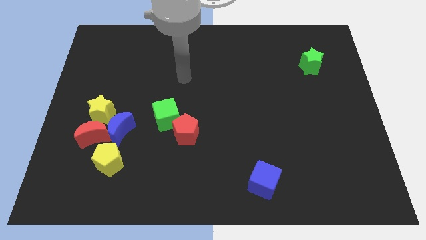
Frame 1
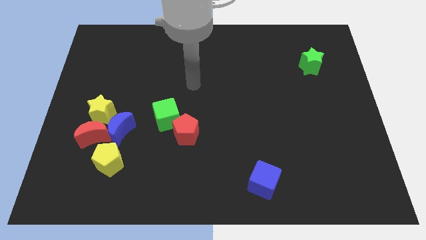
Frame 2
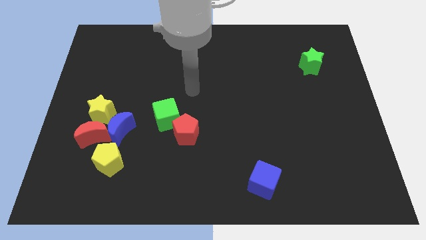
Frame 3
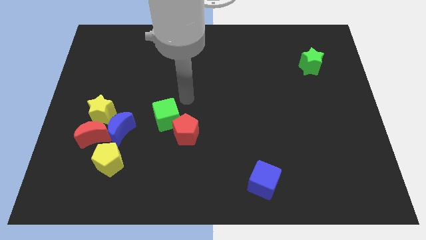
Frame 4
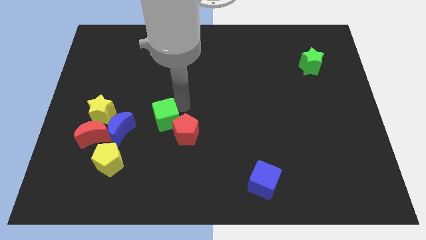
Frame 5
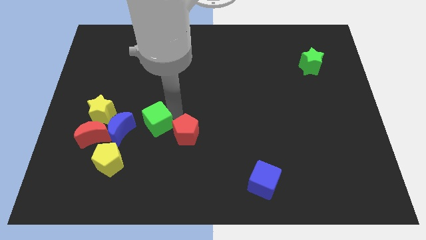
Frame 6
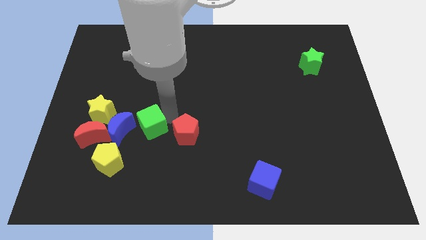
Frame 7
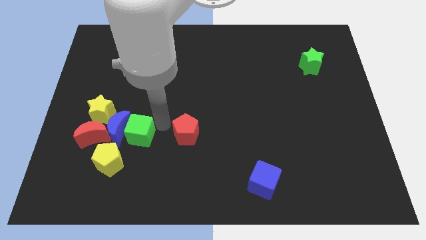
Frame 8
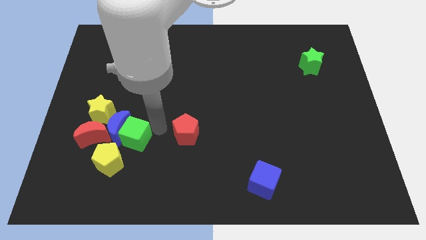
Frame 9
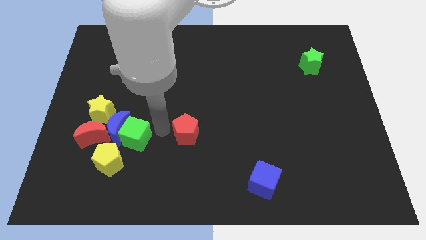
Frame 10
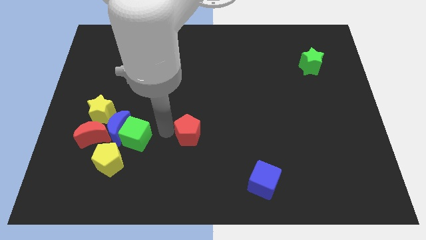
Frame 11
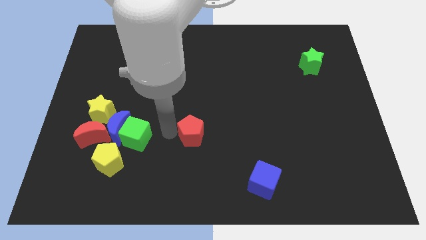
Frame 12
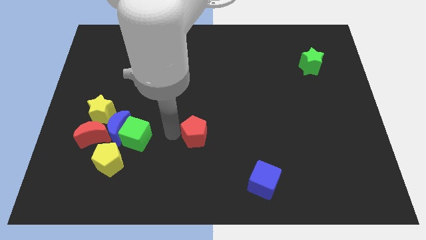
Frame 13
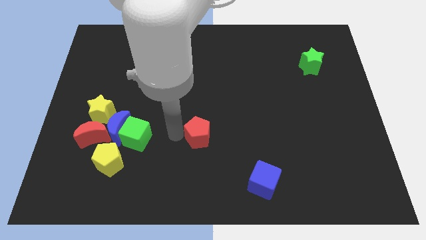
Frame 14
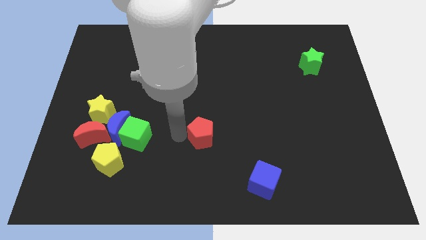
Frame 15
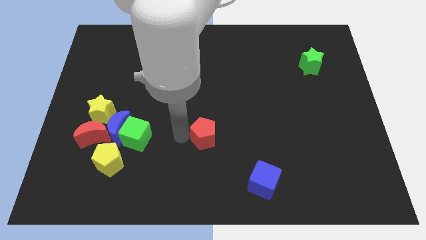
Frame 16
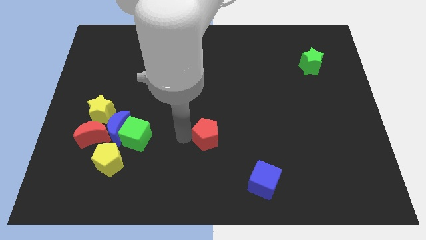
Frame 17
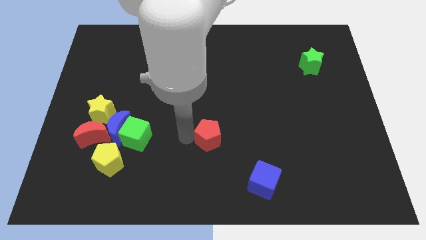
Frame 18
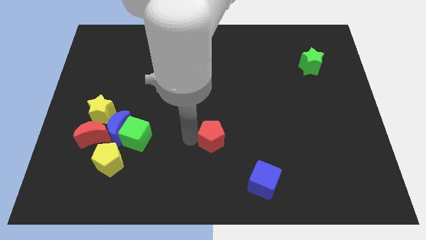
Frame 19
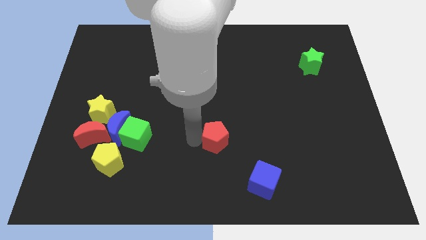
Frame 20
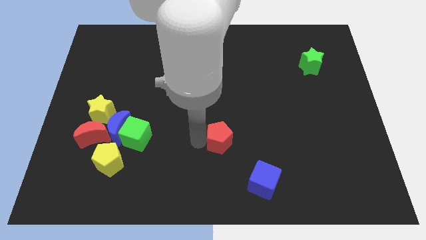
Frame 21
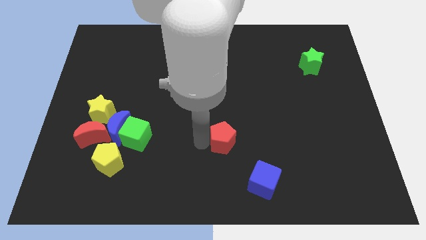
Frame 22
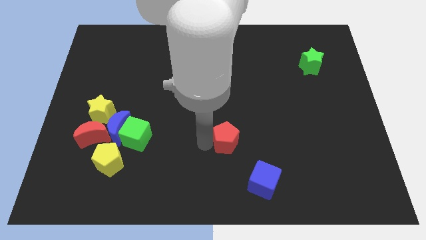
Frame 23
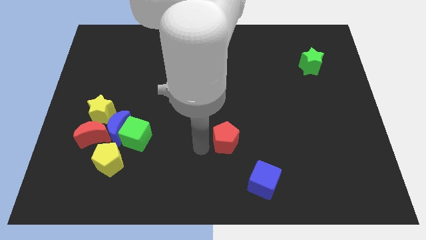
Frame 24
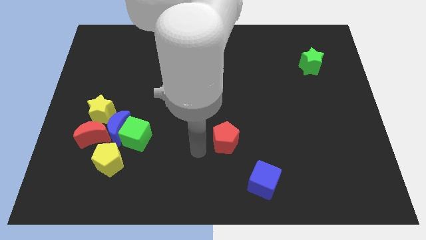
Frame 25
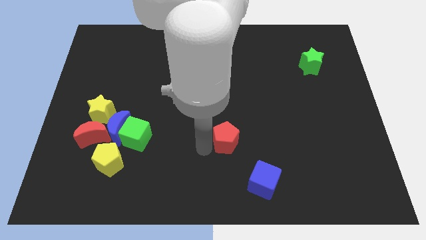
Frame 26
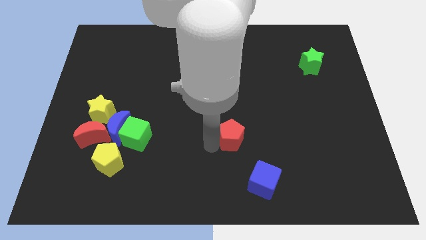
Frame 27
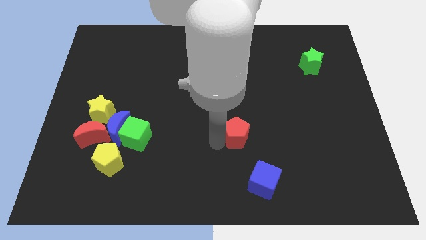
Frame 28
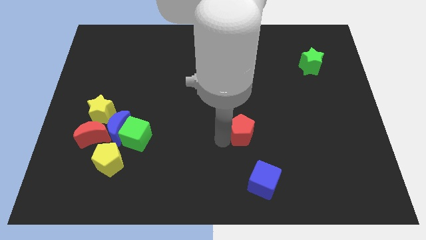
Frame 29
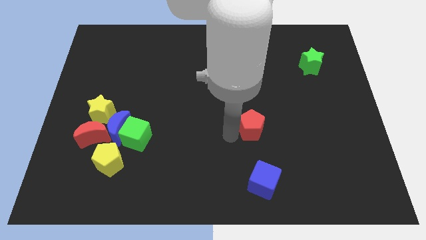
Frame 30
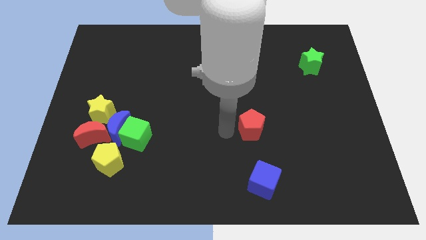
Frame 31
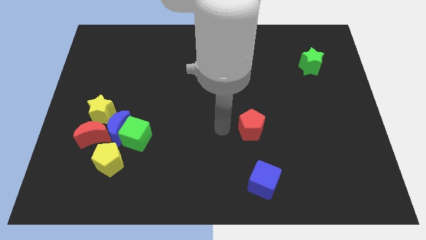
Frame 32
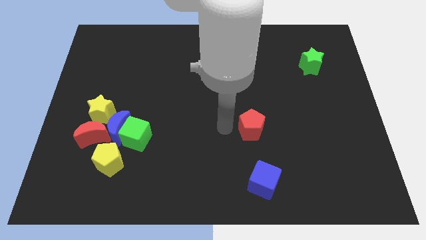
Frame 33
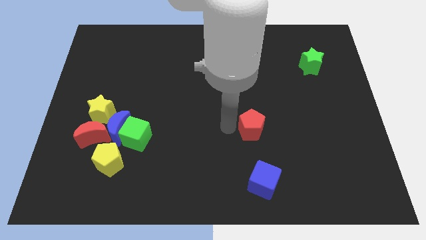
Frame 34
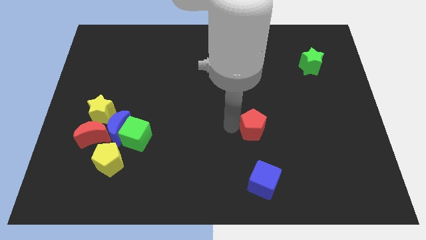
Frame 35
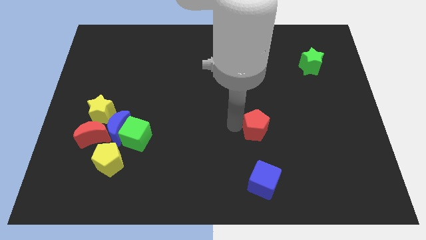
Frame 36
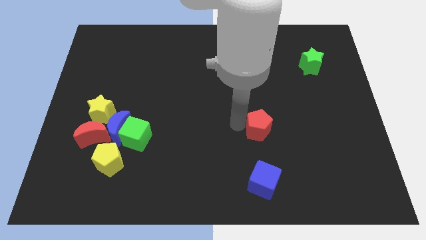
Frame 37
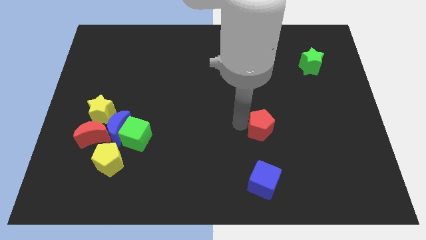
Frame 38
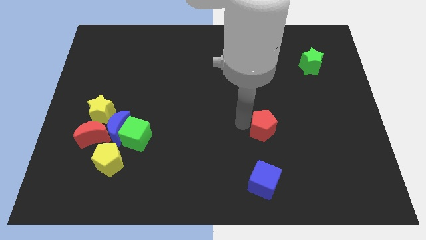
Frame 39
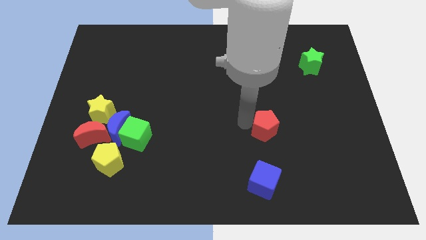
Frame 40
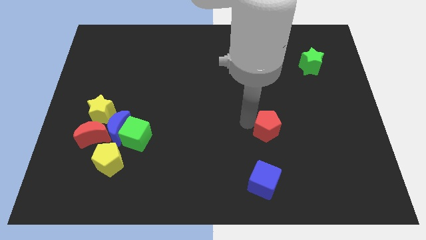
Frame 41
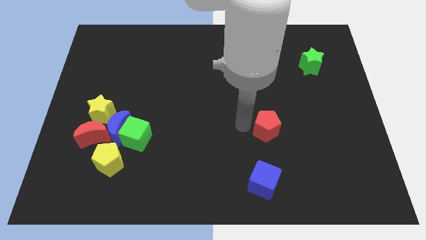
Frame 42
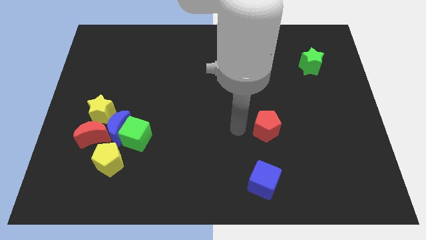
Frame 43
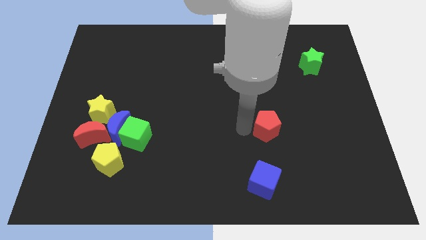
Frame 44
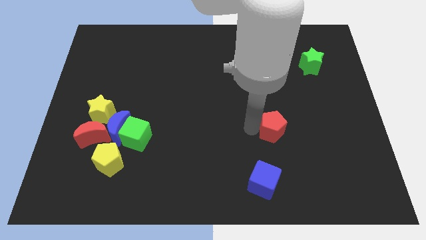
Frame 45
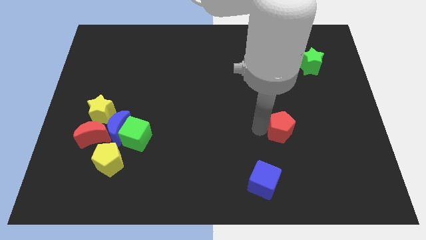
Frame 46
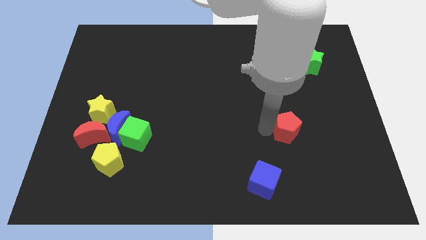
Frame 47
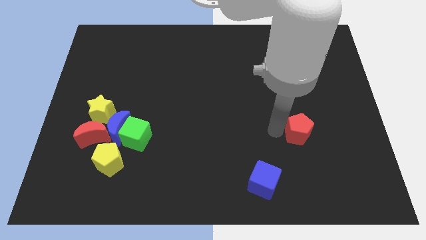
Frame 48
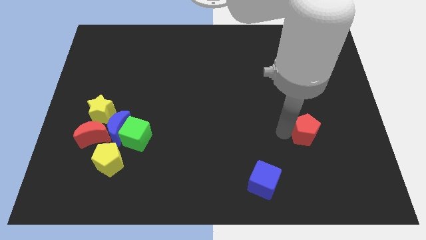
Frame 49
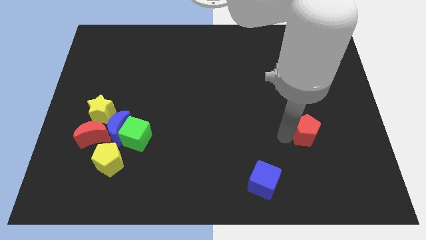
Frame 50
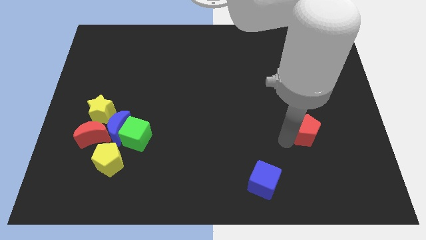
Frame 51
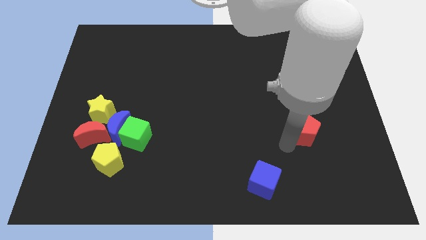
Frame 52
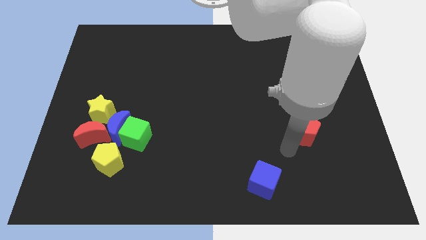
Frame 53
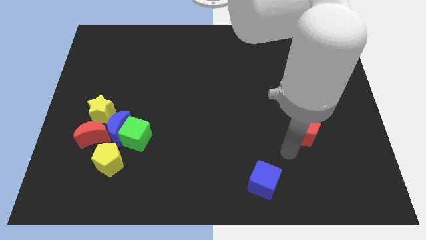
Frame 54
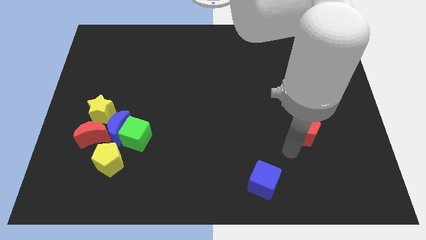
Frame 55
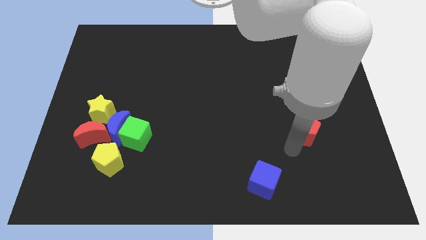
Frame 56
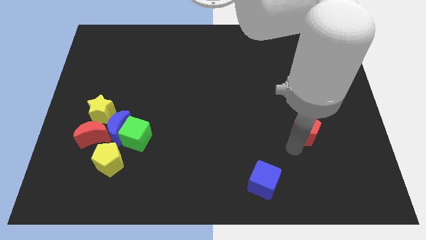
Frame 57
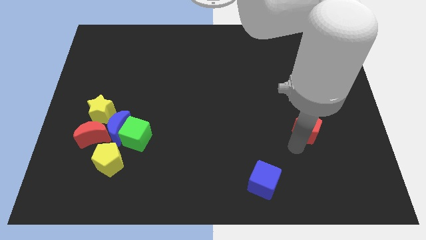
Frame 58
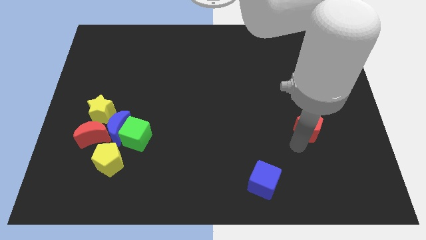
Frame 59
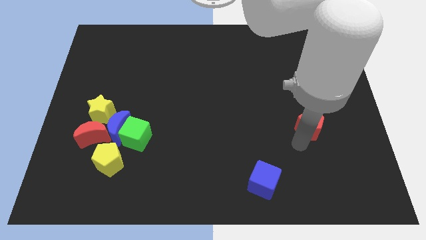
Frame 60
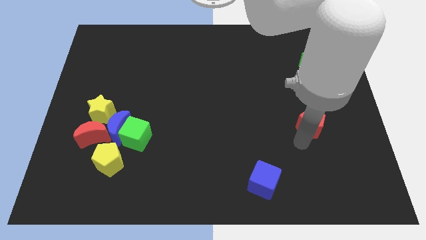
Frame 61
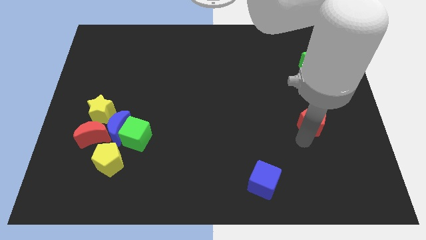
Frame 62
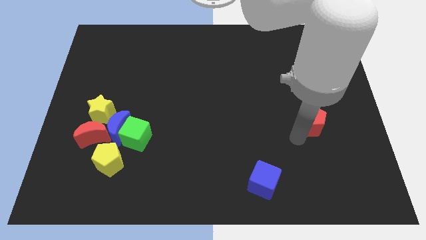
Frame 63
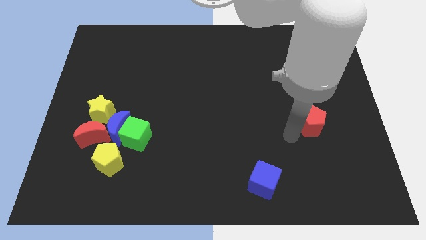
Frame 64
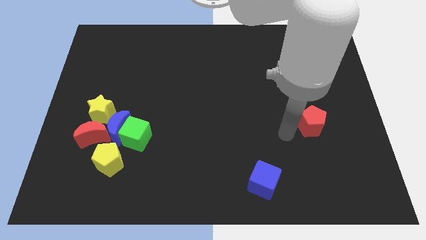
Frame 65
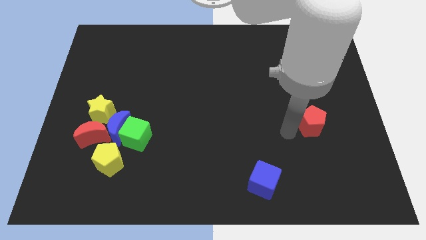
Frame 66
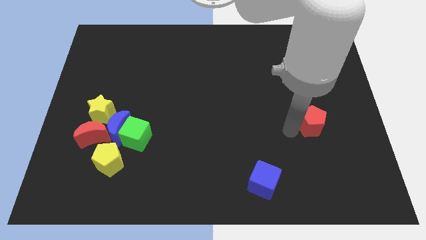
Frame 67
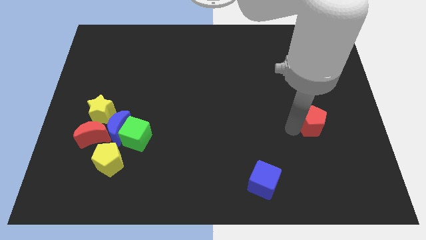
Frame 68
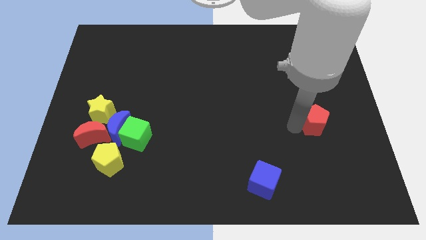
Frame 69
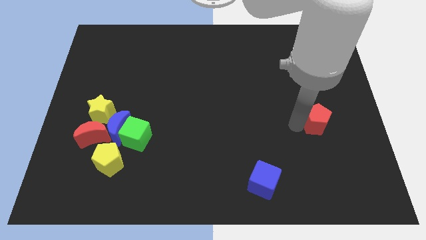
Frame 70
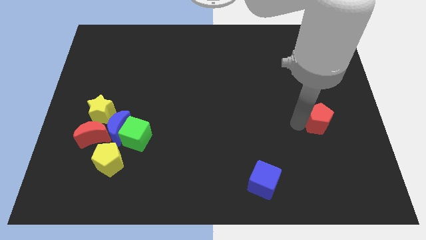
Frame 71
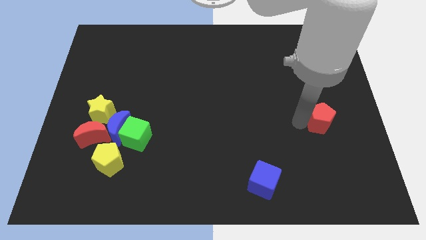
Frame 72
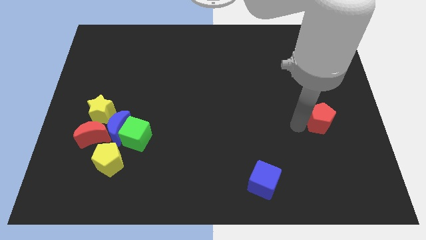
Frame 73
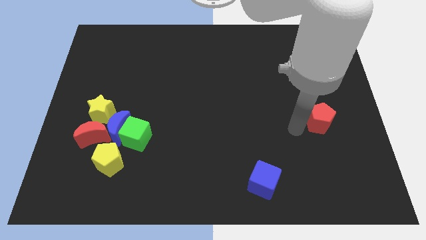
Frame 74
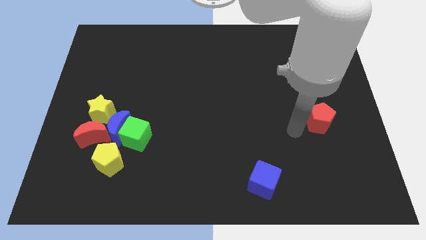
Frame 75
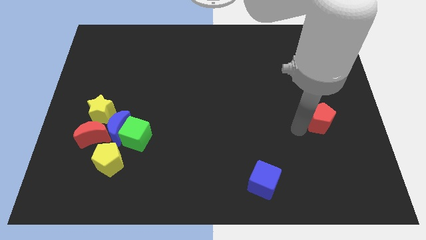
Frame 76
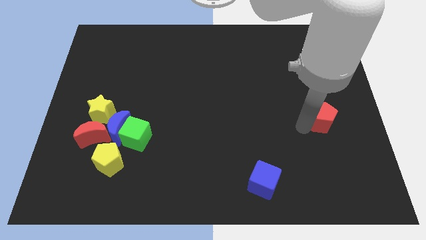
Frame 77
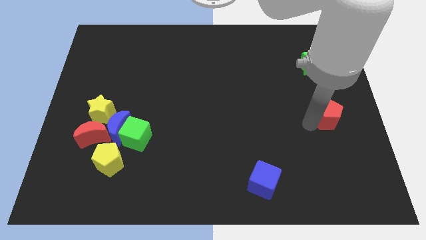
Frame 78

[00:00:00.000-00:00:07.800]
move the red pentagon to the center right
